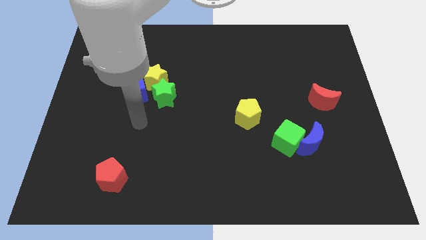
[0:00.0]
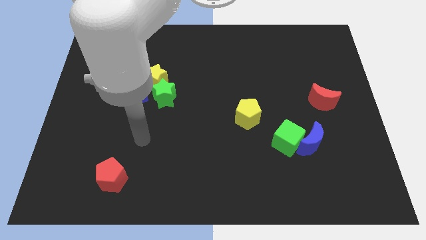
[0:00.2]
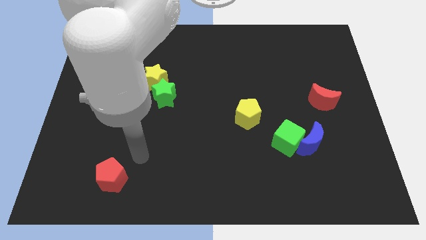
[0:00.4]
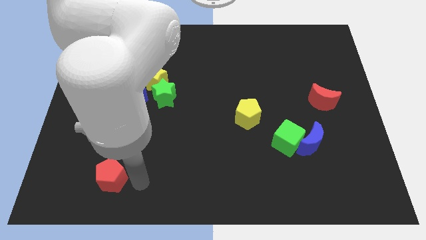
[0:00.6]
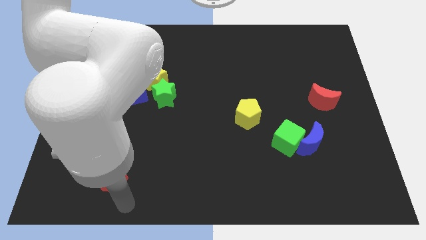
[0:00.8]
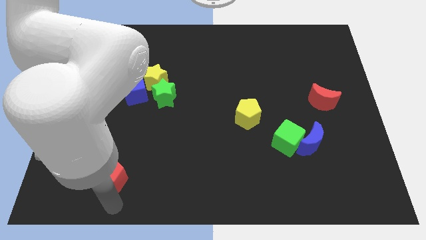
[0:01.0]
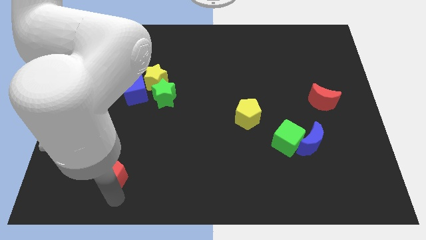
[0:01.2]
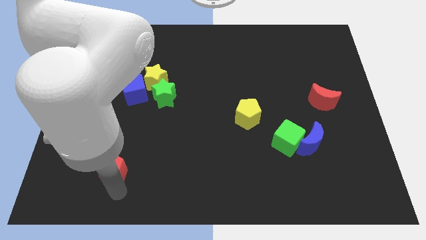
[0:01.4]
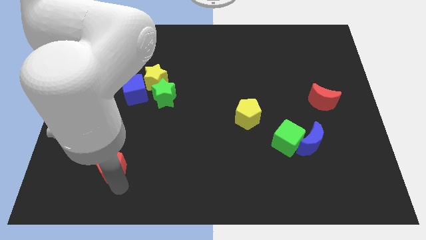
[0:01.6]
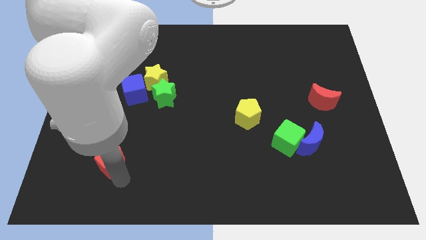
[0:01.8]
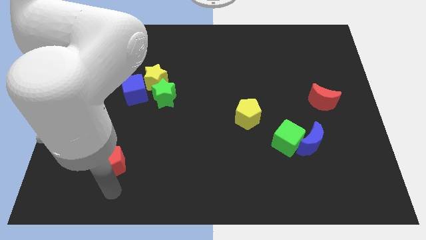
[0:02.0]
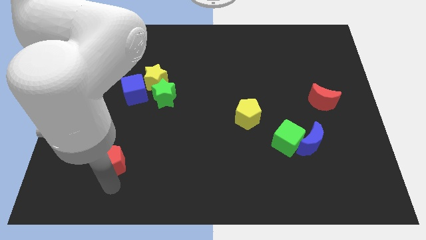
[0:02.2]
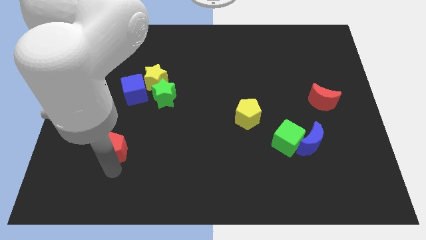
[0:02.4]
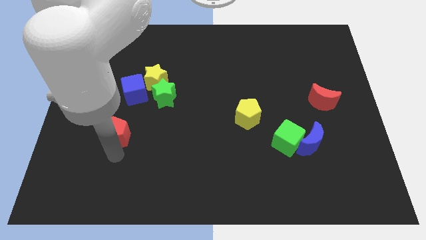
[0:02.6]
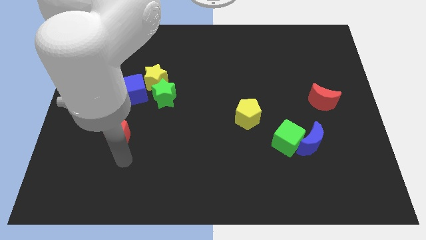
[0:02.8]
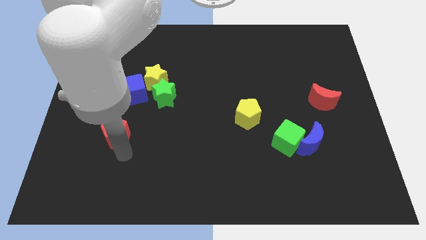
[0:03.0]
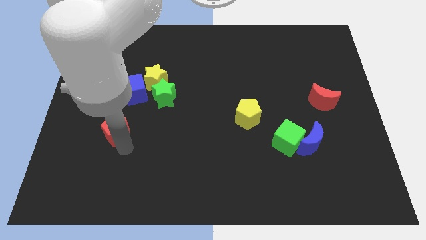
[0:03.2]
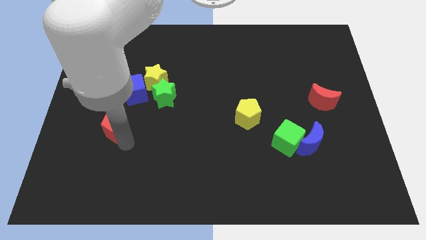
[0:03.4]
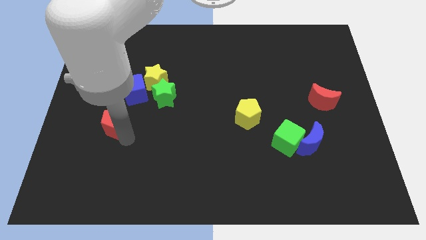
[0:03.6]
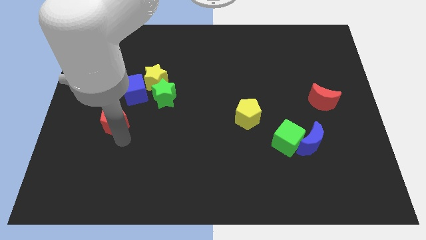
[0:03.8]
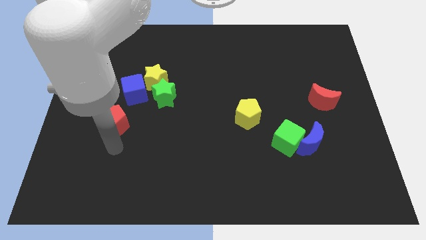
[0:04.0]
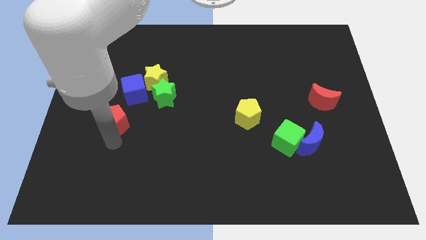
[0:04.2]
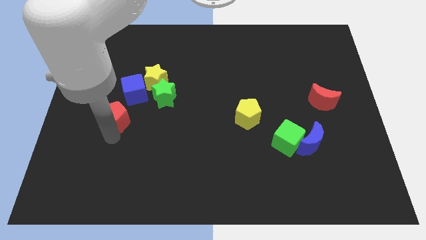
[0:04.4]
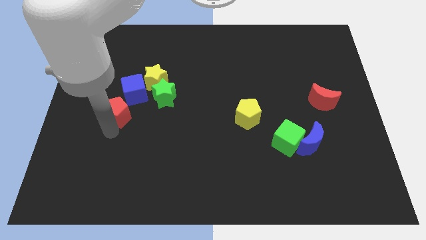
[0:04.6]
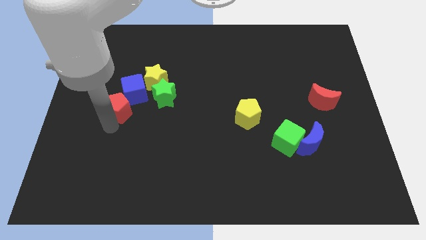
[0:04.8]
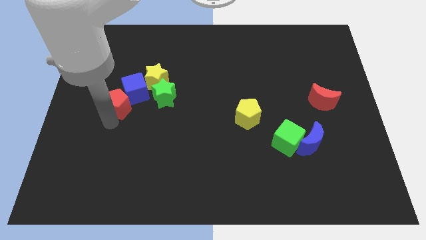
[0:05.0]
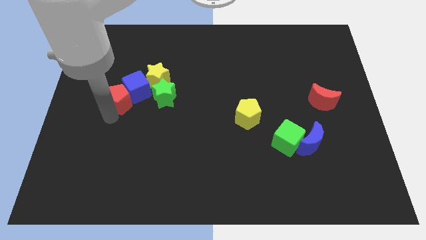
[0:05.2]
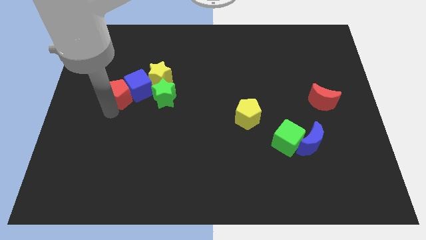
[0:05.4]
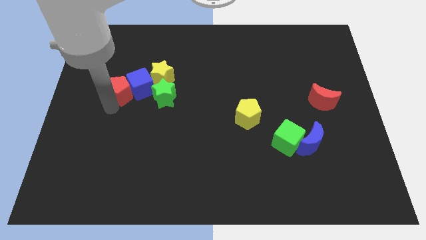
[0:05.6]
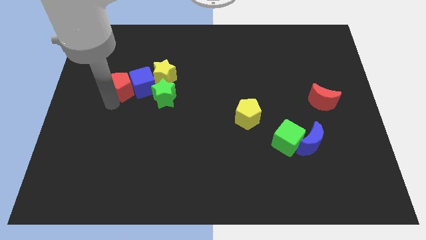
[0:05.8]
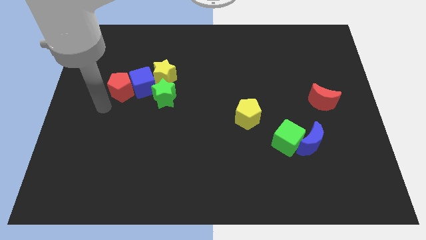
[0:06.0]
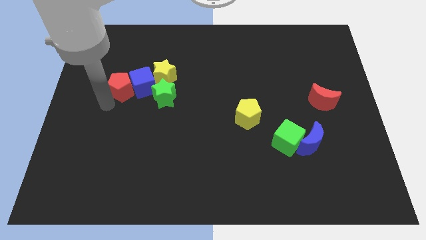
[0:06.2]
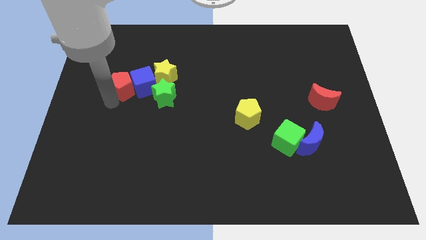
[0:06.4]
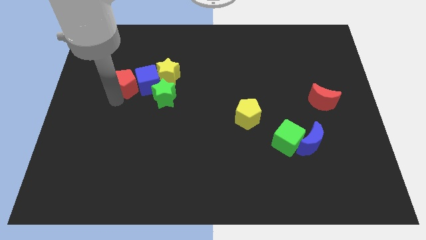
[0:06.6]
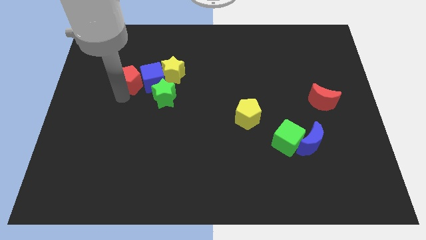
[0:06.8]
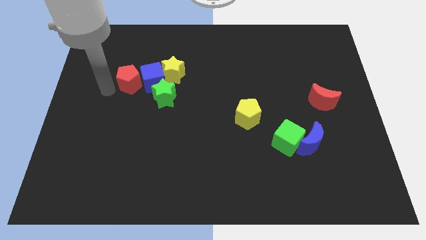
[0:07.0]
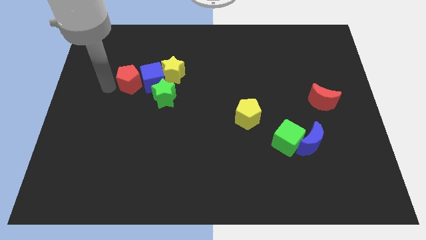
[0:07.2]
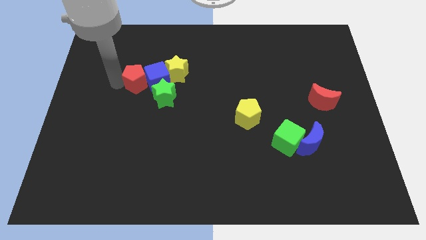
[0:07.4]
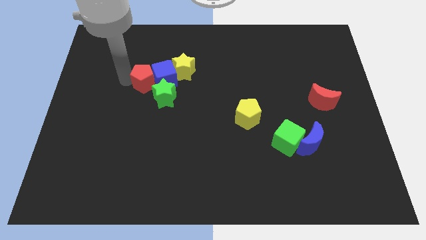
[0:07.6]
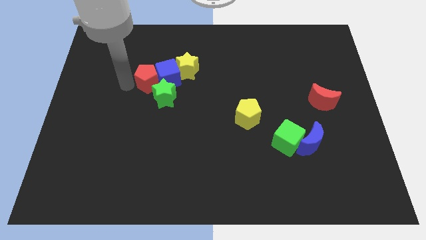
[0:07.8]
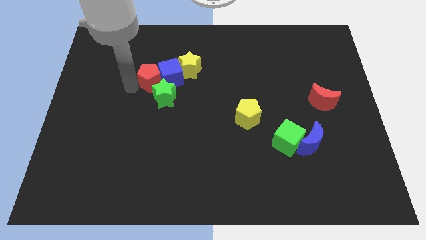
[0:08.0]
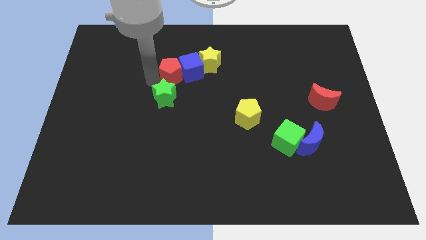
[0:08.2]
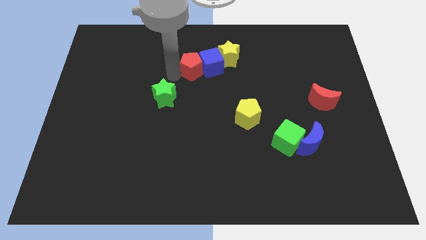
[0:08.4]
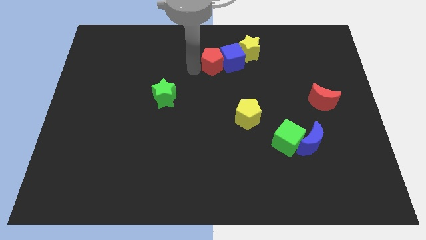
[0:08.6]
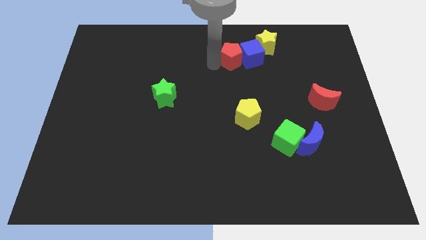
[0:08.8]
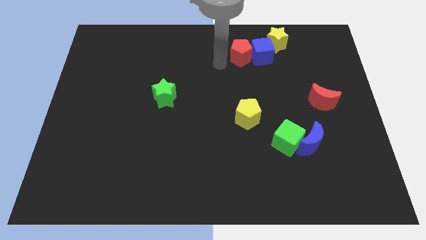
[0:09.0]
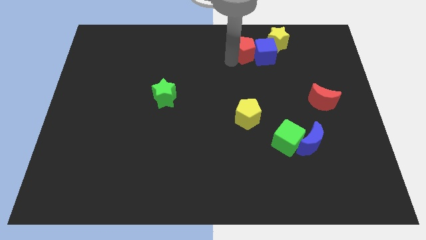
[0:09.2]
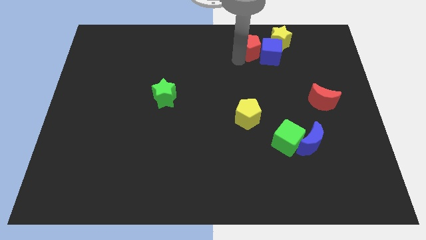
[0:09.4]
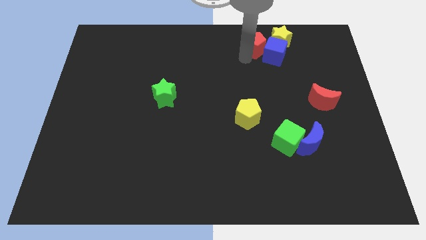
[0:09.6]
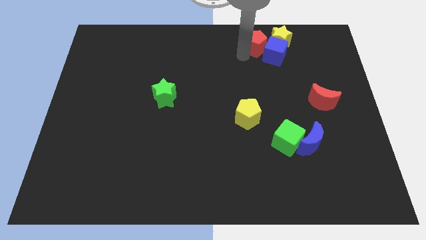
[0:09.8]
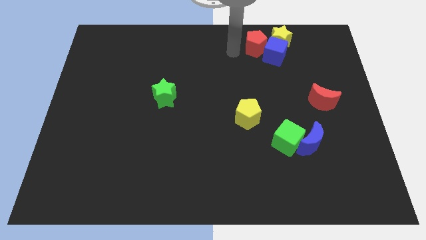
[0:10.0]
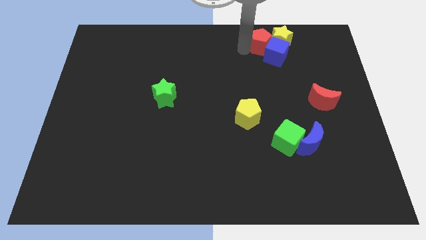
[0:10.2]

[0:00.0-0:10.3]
move the red pentagon towards the yellow star

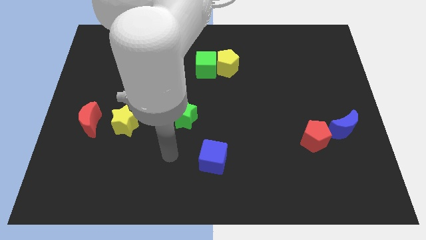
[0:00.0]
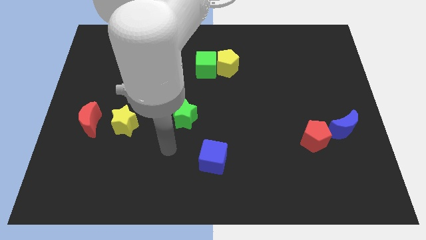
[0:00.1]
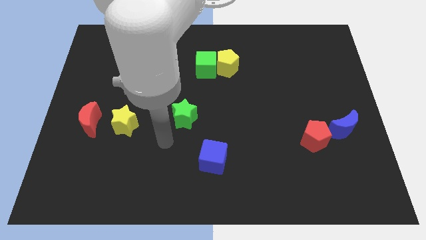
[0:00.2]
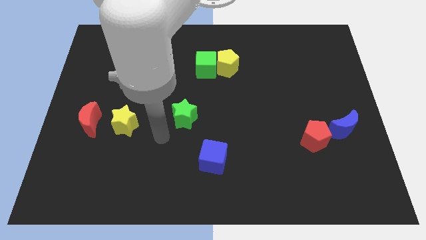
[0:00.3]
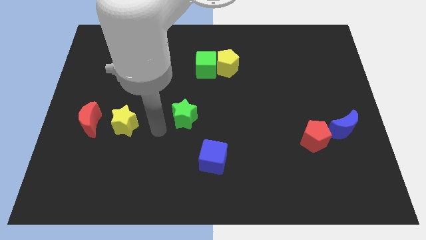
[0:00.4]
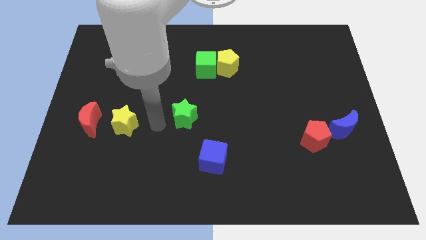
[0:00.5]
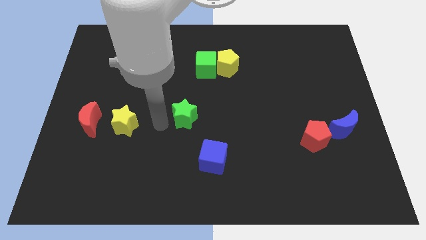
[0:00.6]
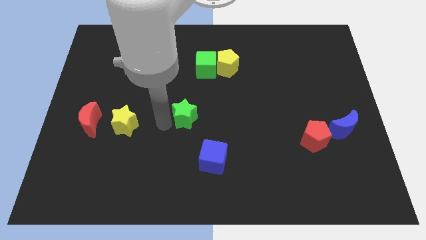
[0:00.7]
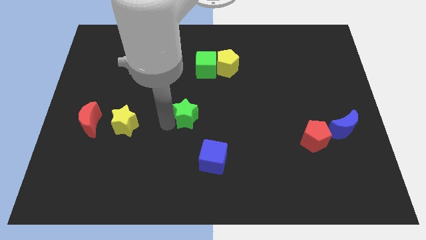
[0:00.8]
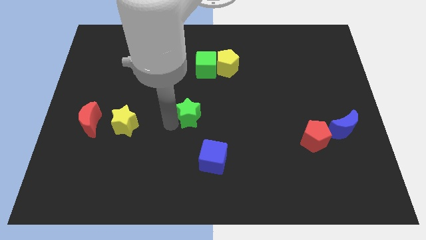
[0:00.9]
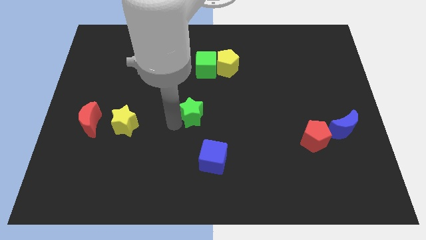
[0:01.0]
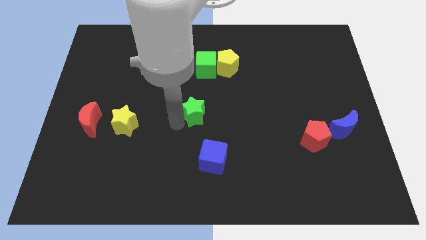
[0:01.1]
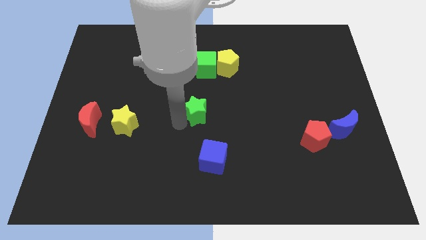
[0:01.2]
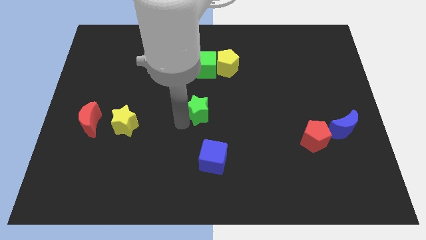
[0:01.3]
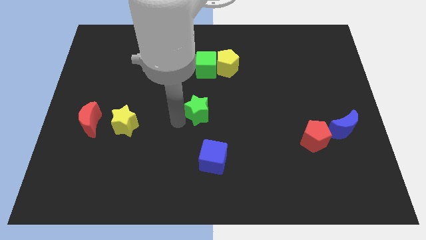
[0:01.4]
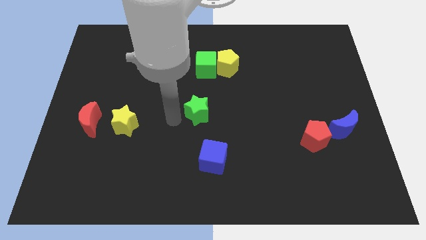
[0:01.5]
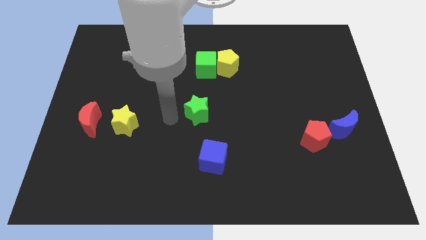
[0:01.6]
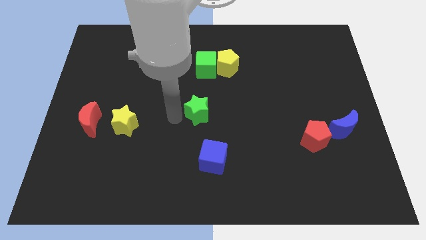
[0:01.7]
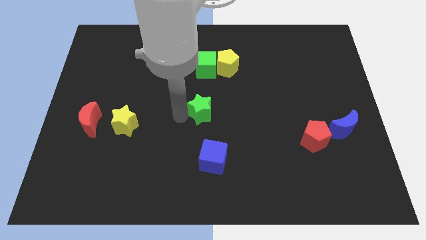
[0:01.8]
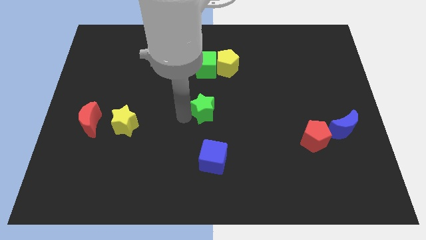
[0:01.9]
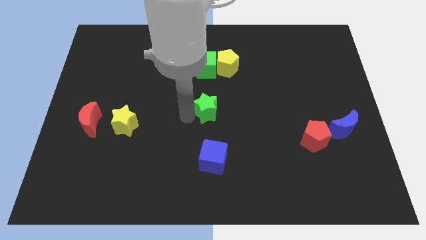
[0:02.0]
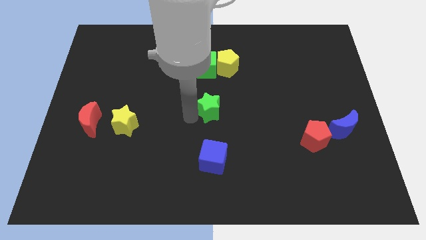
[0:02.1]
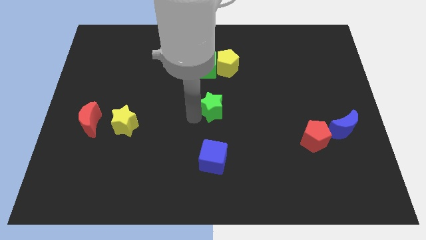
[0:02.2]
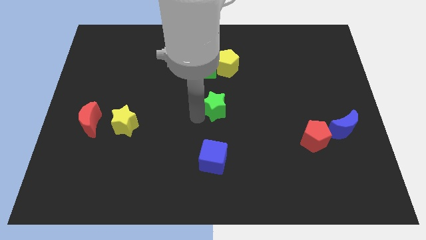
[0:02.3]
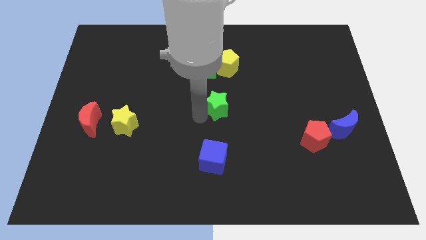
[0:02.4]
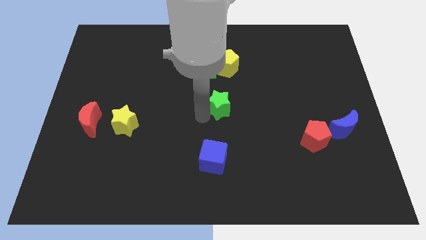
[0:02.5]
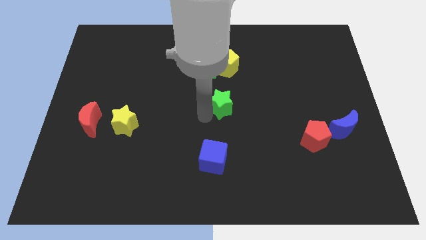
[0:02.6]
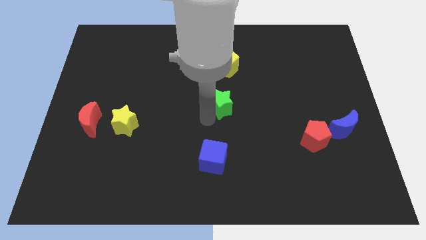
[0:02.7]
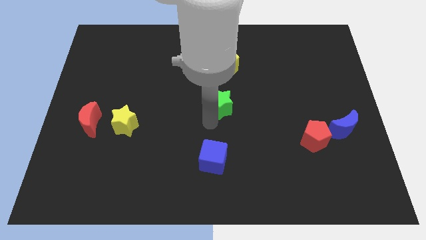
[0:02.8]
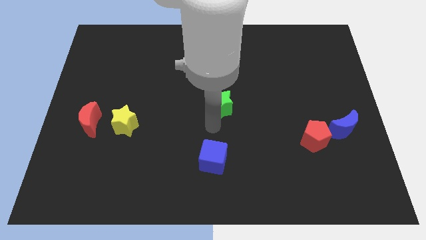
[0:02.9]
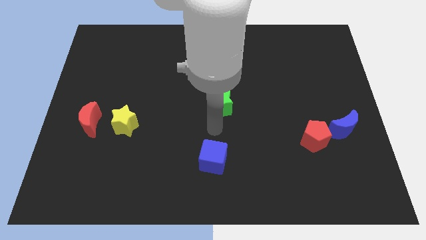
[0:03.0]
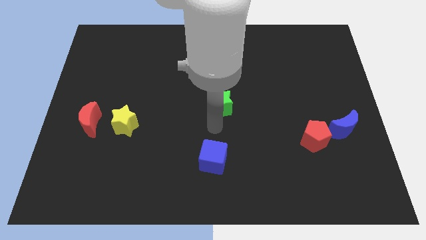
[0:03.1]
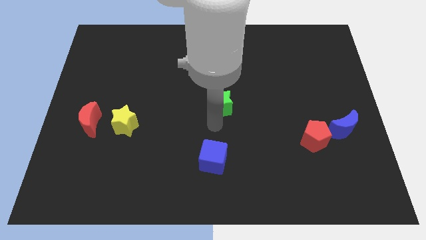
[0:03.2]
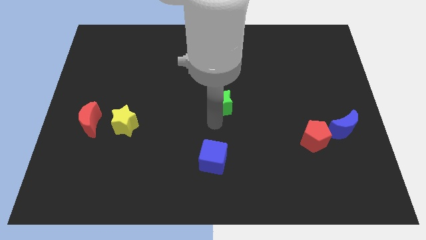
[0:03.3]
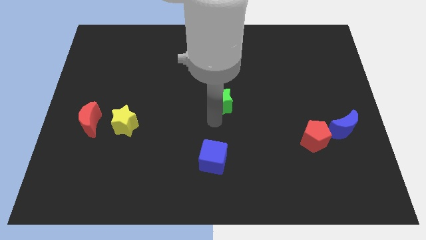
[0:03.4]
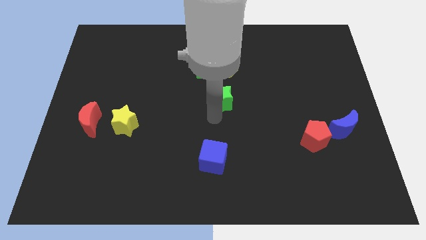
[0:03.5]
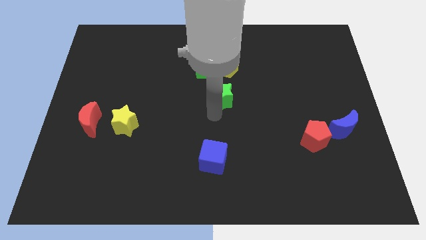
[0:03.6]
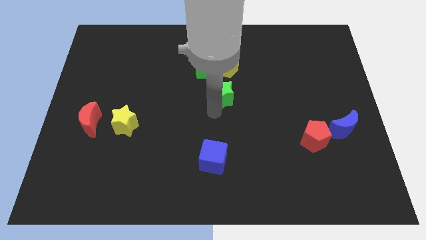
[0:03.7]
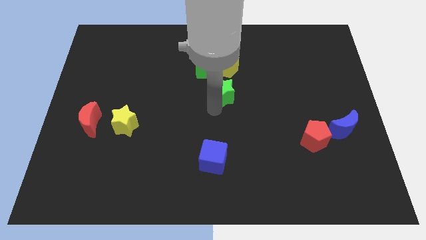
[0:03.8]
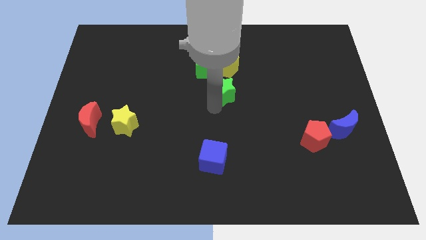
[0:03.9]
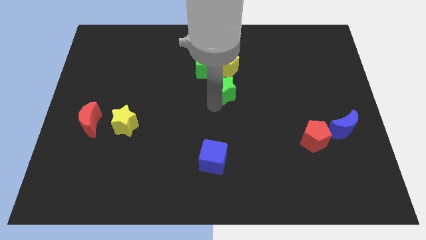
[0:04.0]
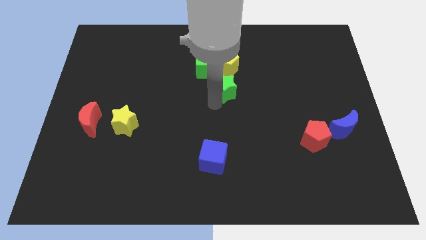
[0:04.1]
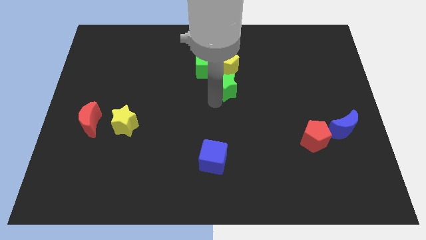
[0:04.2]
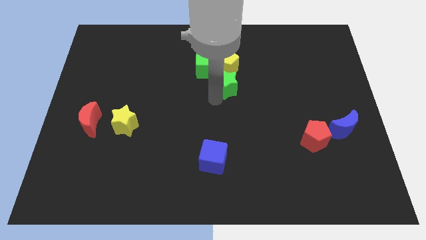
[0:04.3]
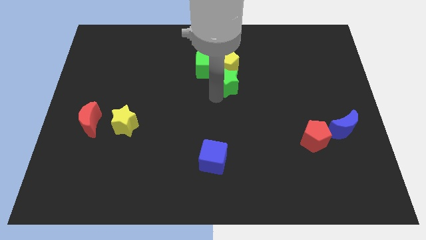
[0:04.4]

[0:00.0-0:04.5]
push the green star next to the yellow pentagon
